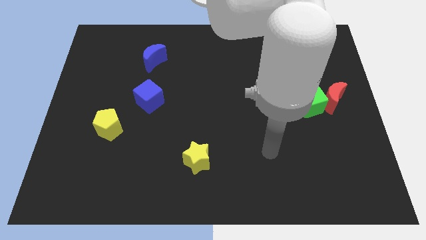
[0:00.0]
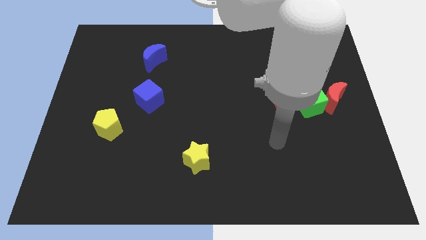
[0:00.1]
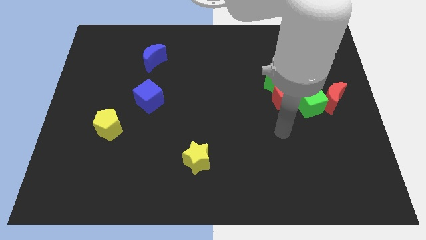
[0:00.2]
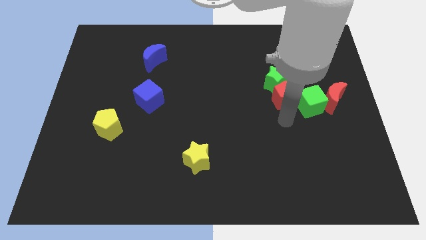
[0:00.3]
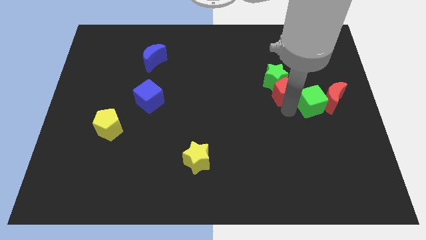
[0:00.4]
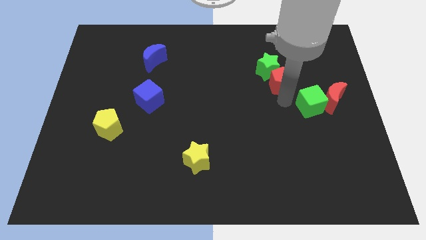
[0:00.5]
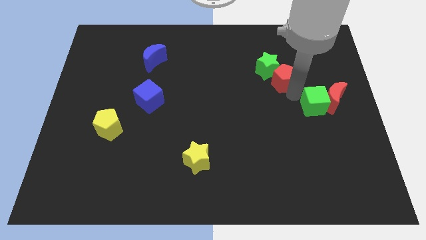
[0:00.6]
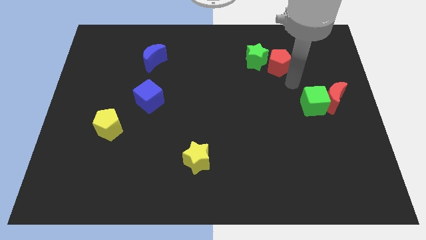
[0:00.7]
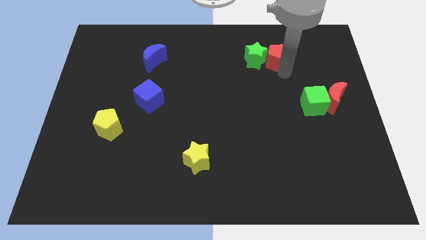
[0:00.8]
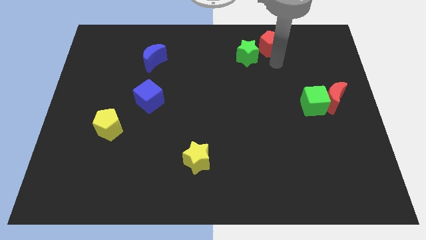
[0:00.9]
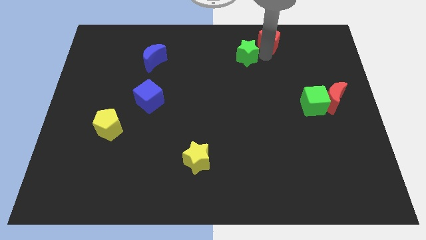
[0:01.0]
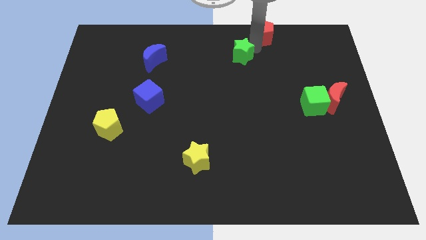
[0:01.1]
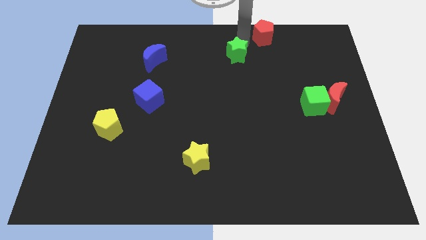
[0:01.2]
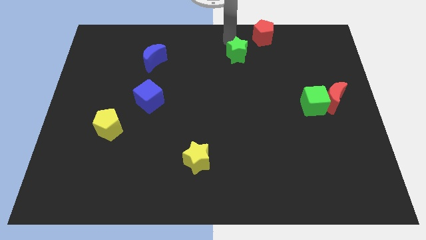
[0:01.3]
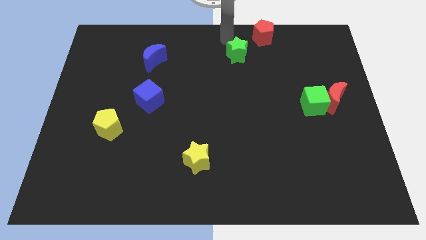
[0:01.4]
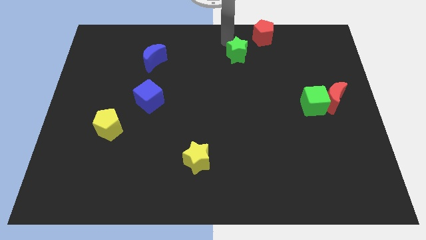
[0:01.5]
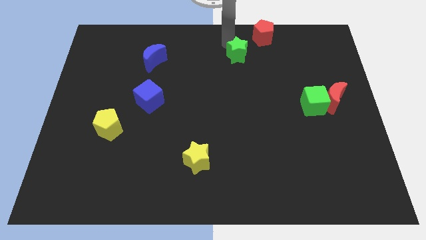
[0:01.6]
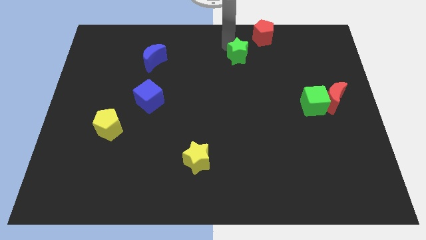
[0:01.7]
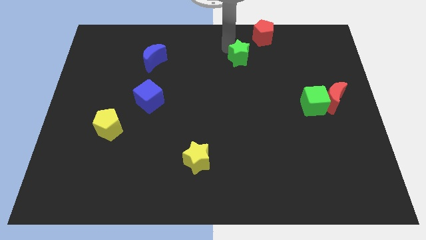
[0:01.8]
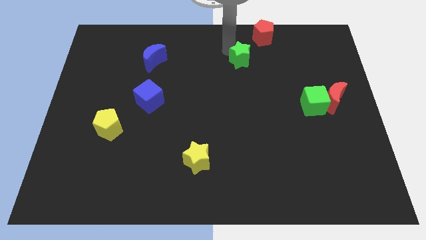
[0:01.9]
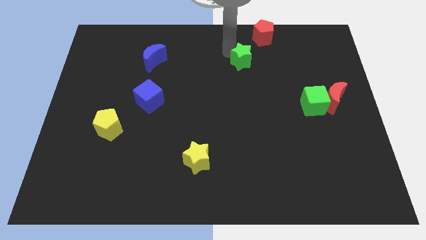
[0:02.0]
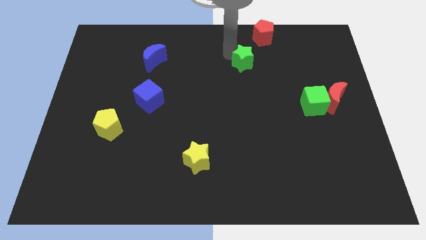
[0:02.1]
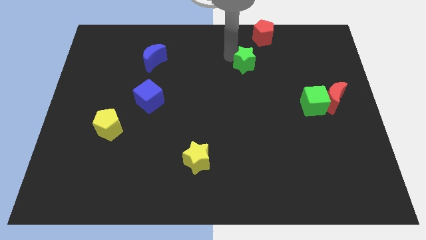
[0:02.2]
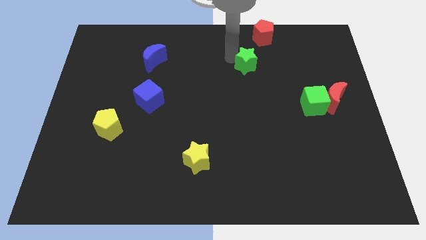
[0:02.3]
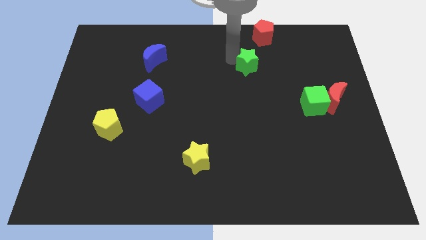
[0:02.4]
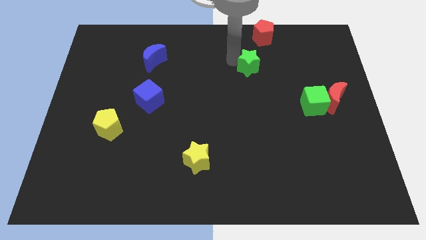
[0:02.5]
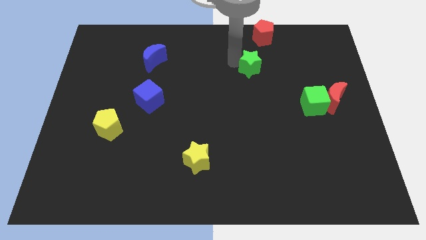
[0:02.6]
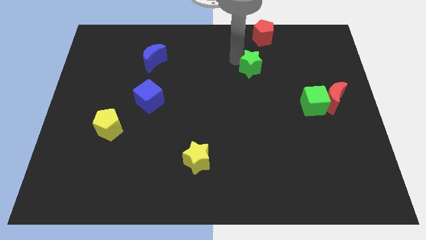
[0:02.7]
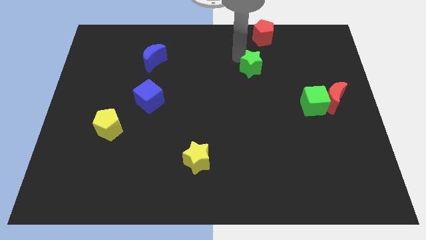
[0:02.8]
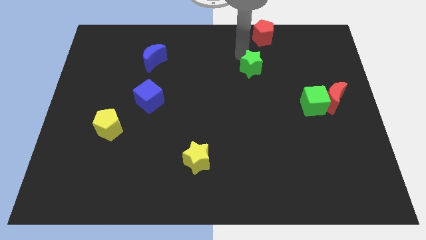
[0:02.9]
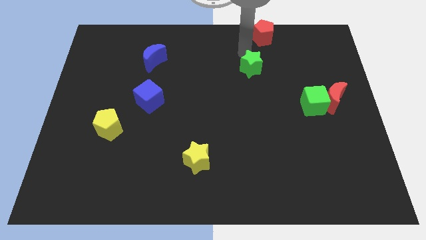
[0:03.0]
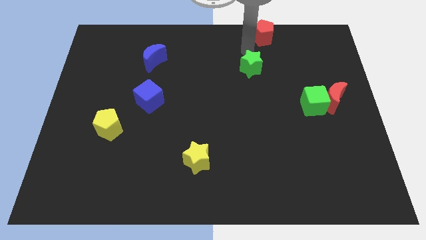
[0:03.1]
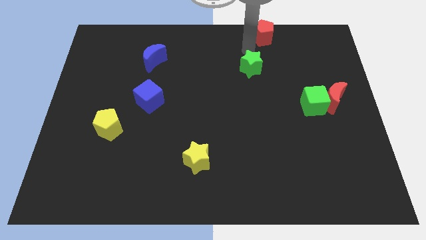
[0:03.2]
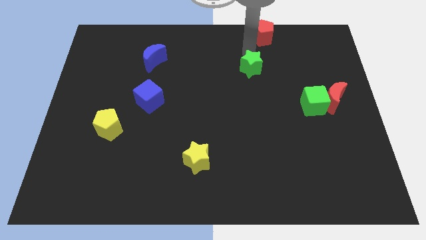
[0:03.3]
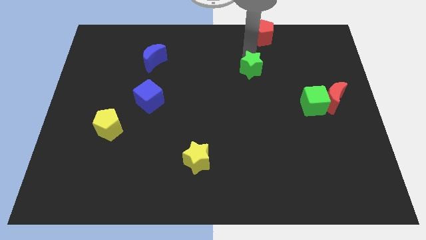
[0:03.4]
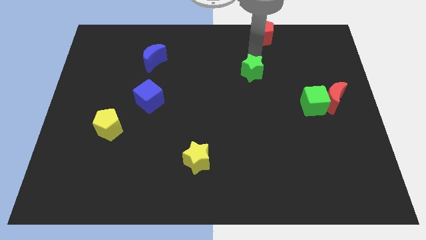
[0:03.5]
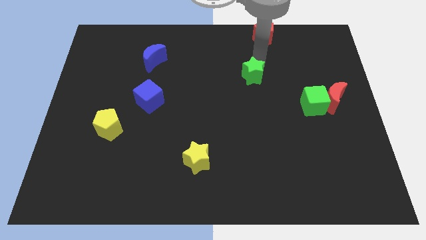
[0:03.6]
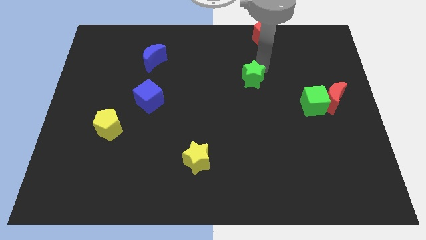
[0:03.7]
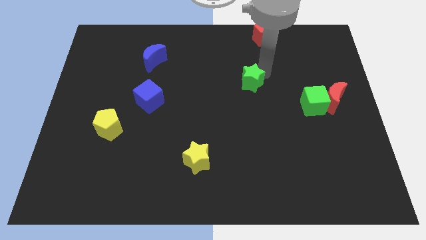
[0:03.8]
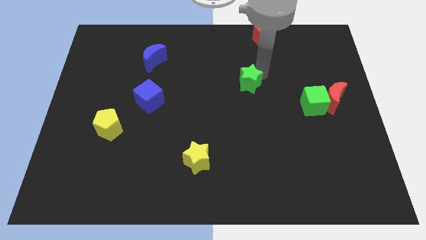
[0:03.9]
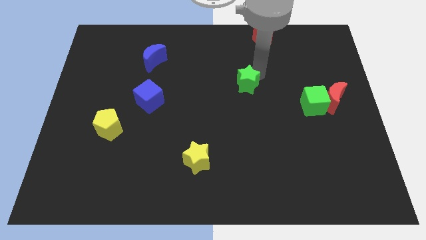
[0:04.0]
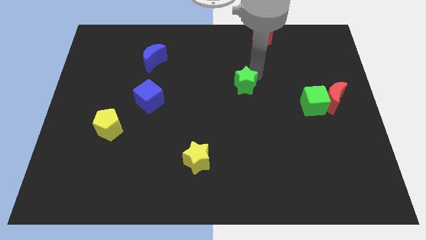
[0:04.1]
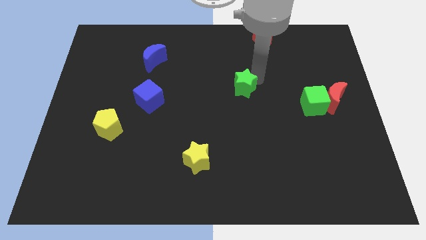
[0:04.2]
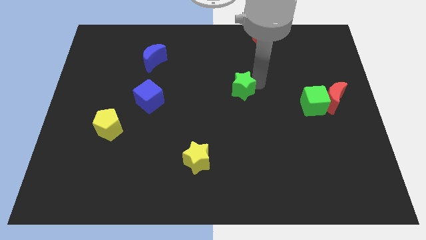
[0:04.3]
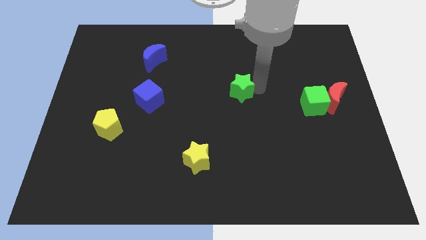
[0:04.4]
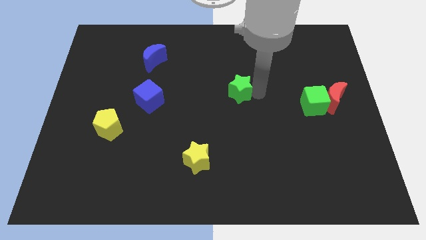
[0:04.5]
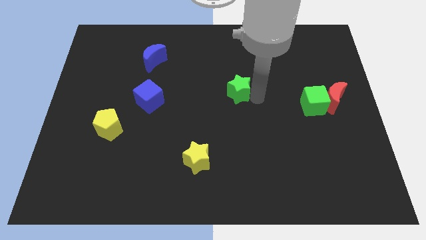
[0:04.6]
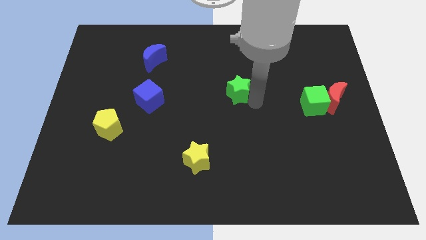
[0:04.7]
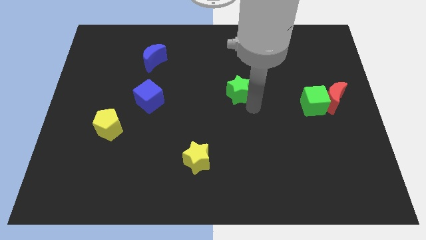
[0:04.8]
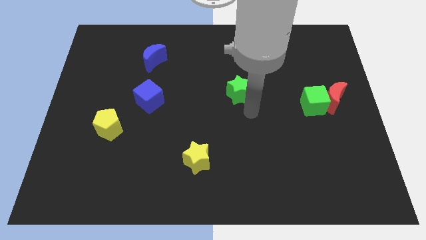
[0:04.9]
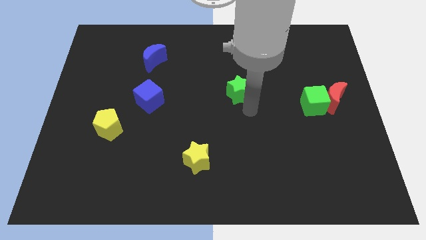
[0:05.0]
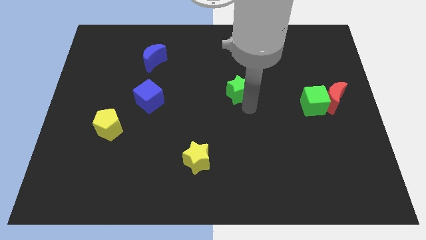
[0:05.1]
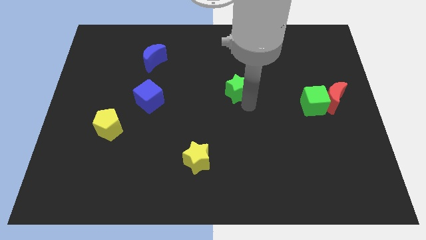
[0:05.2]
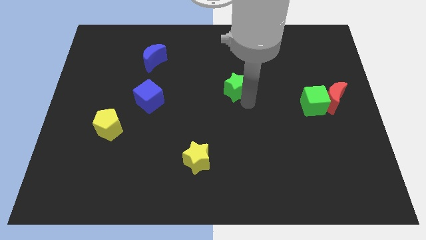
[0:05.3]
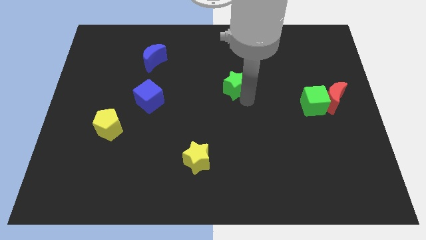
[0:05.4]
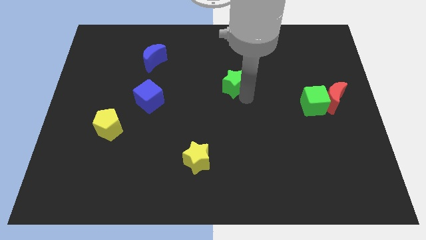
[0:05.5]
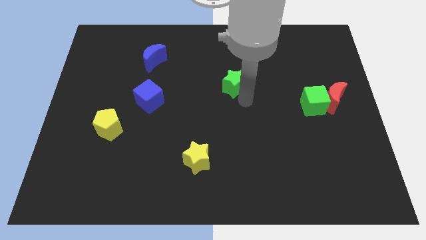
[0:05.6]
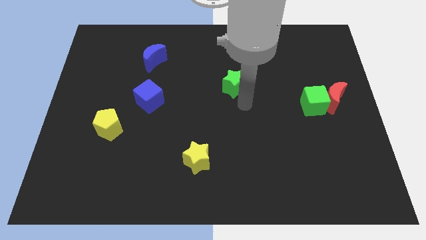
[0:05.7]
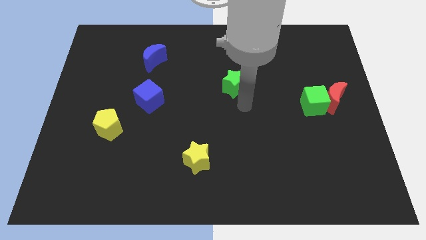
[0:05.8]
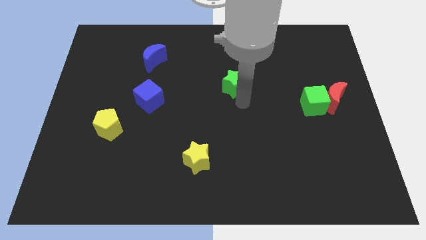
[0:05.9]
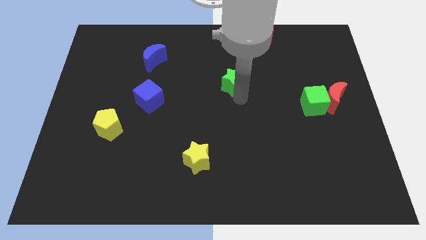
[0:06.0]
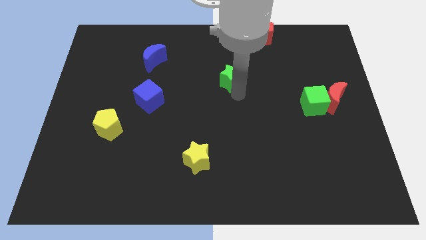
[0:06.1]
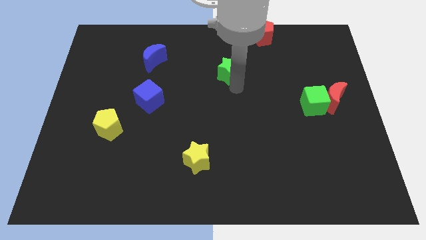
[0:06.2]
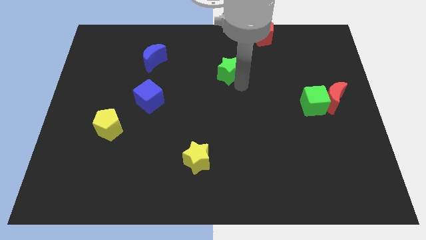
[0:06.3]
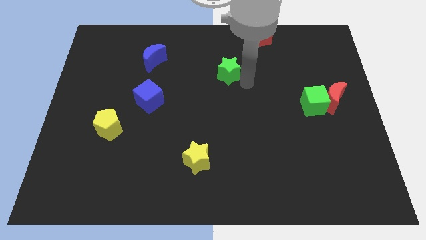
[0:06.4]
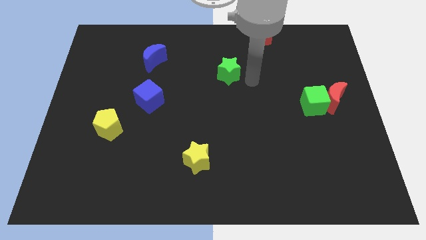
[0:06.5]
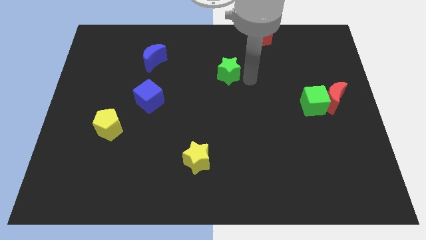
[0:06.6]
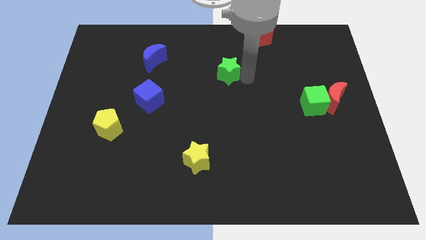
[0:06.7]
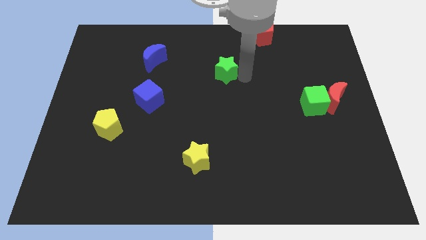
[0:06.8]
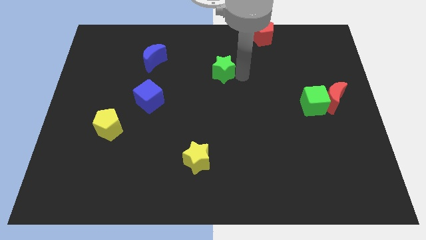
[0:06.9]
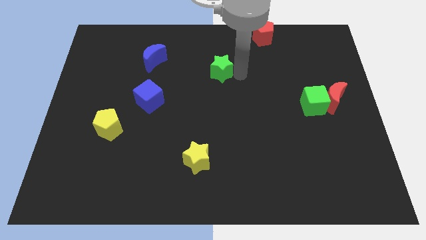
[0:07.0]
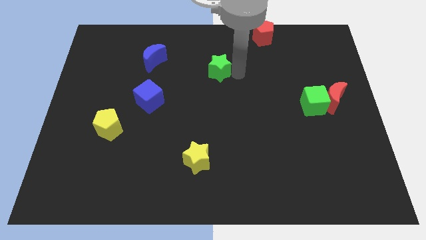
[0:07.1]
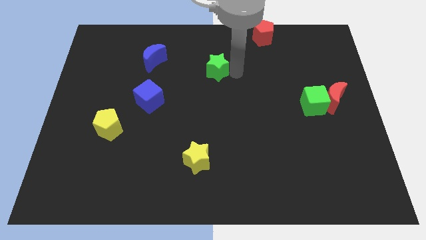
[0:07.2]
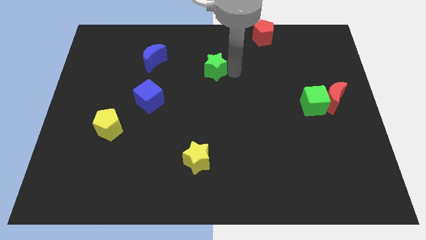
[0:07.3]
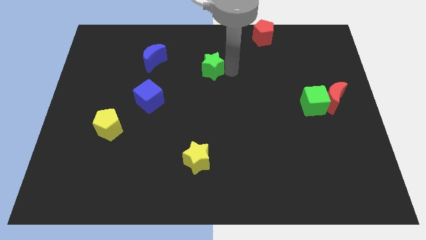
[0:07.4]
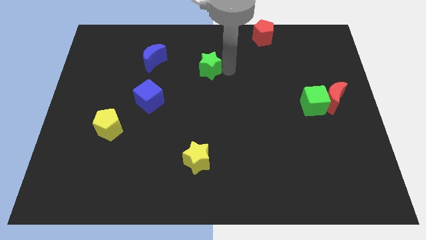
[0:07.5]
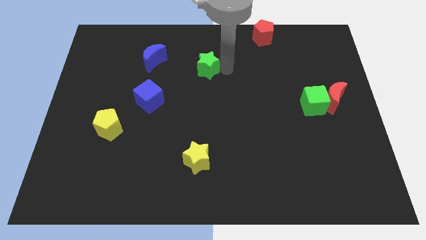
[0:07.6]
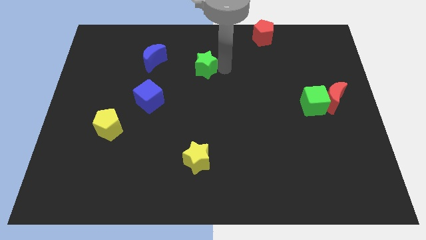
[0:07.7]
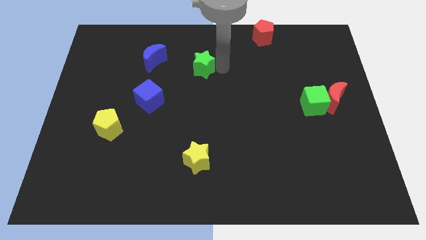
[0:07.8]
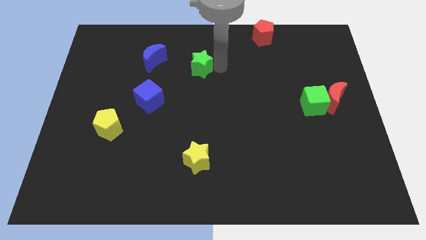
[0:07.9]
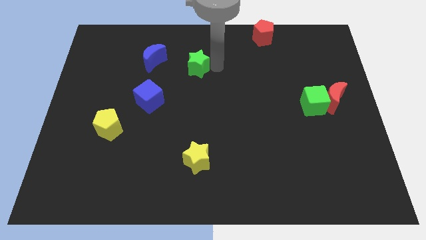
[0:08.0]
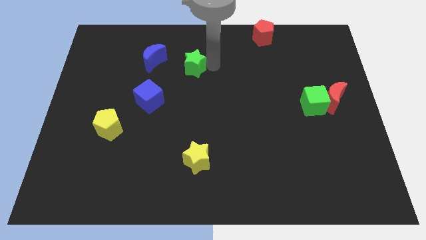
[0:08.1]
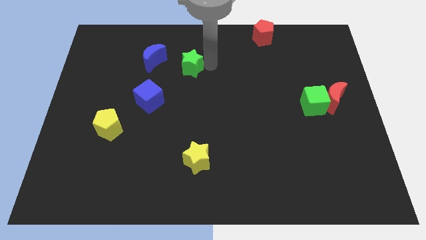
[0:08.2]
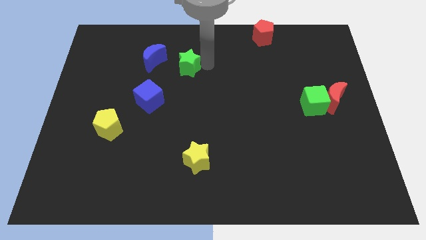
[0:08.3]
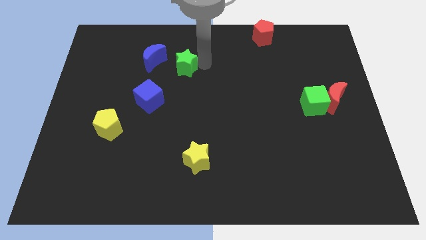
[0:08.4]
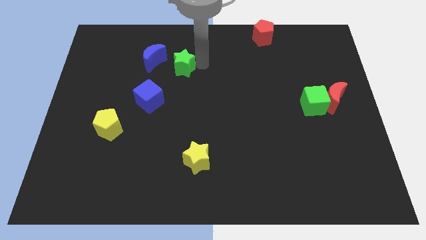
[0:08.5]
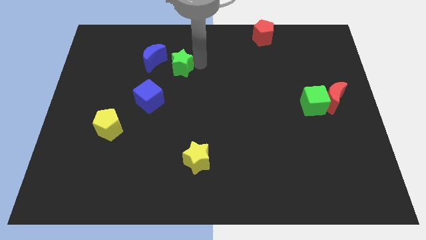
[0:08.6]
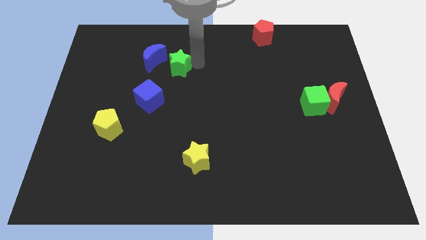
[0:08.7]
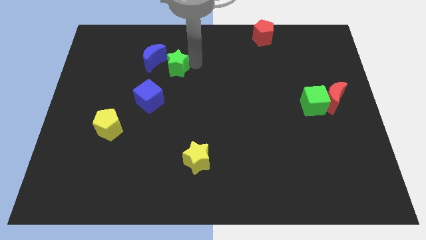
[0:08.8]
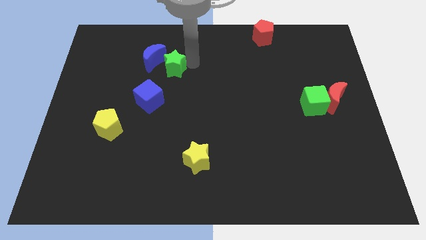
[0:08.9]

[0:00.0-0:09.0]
put the green star to the blue moon
